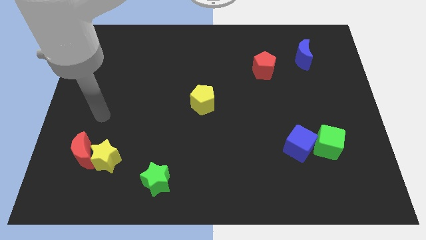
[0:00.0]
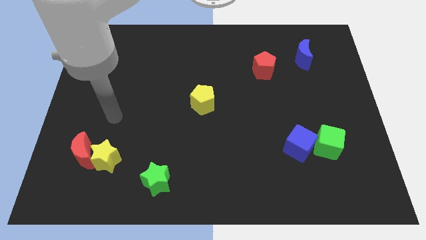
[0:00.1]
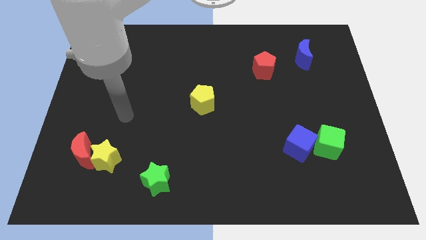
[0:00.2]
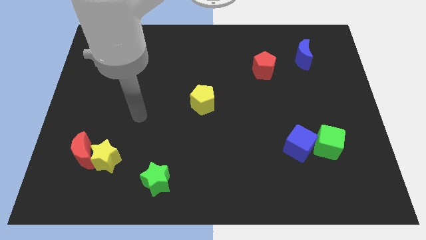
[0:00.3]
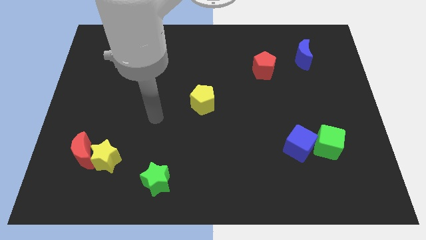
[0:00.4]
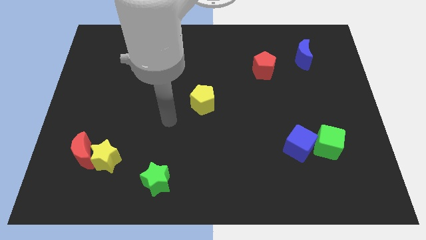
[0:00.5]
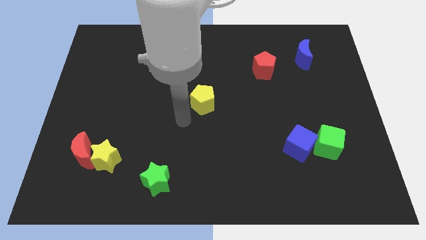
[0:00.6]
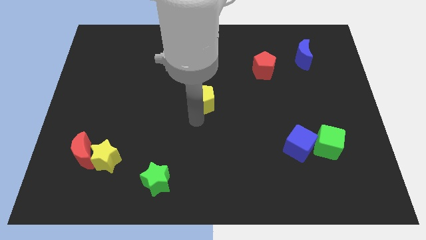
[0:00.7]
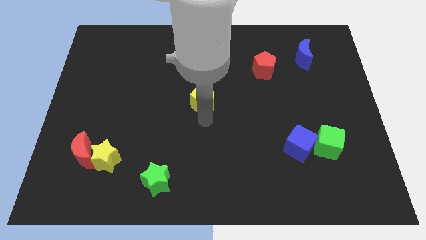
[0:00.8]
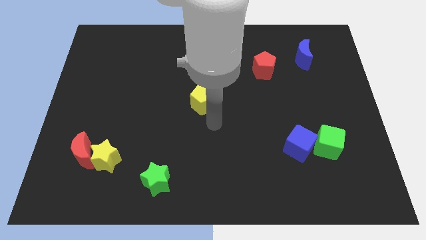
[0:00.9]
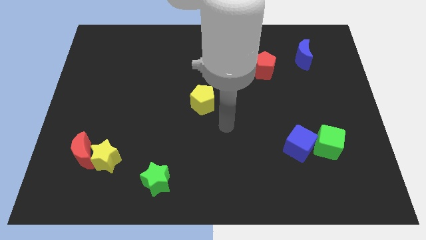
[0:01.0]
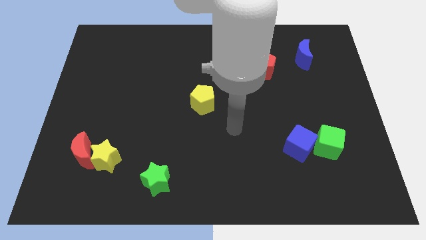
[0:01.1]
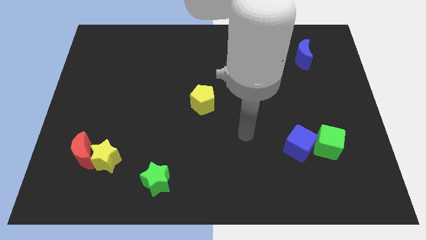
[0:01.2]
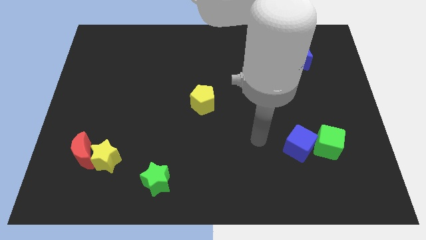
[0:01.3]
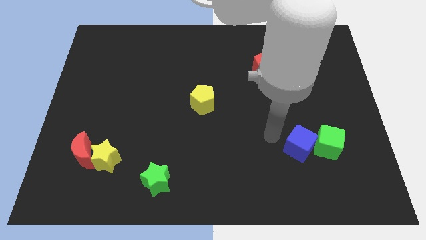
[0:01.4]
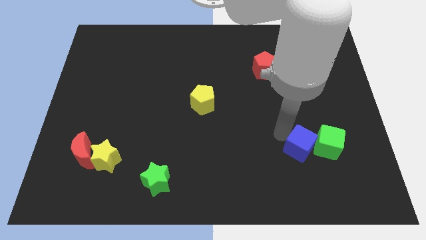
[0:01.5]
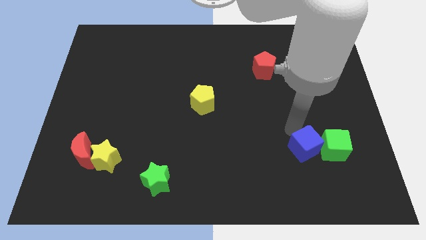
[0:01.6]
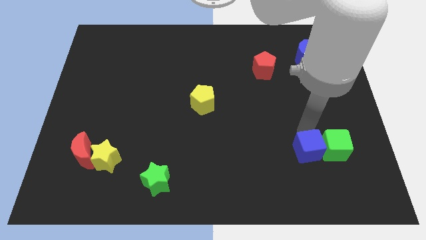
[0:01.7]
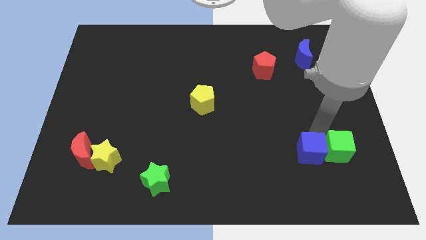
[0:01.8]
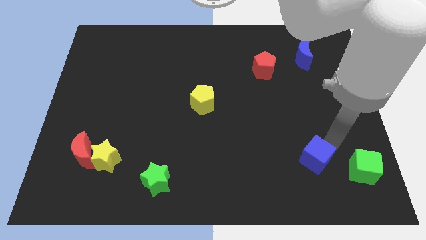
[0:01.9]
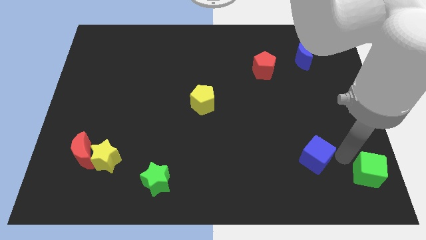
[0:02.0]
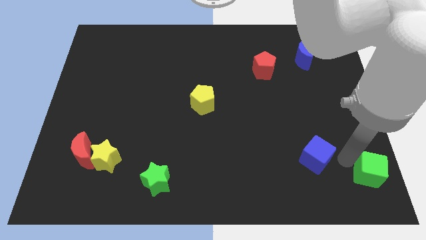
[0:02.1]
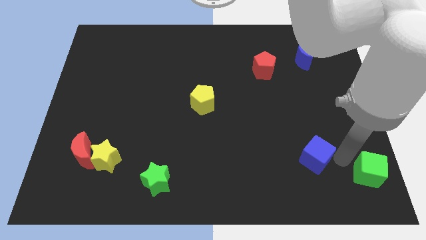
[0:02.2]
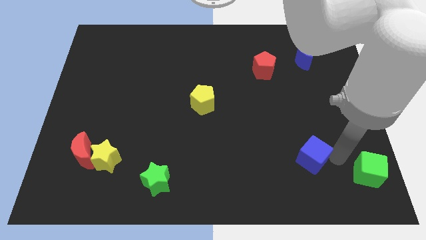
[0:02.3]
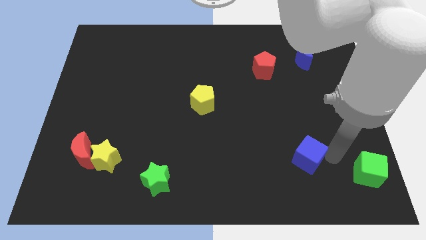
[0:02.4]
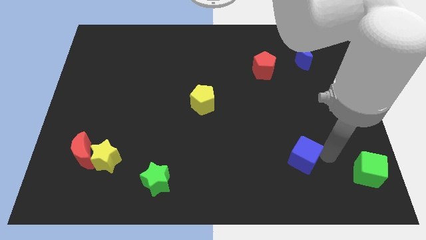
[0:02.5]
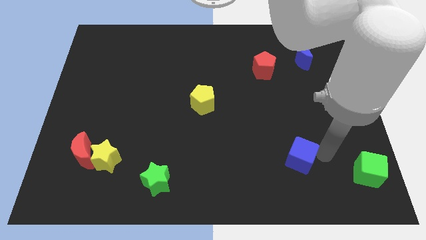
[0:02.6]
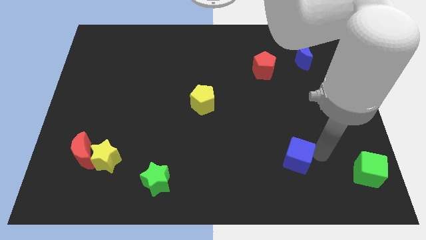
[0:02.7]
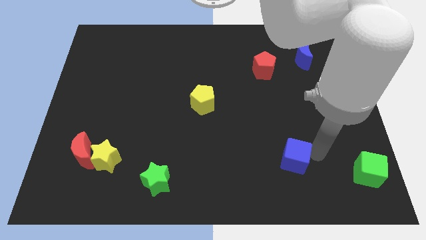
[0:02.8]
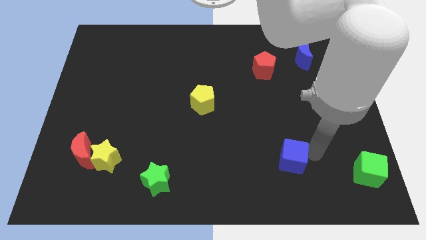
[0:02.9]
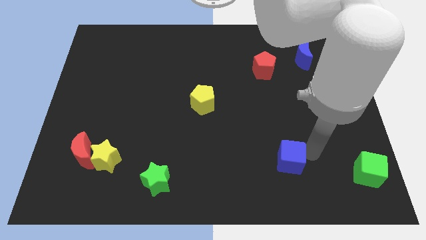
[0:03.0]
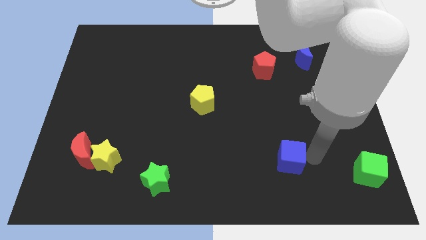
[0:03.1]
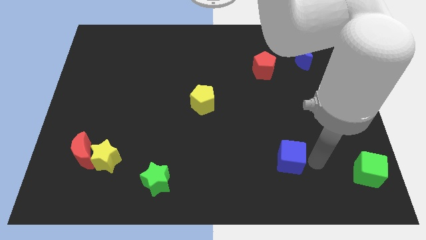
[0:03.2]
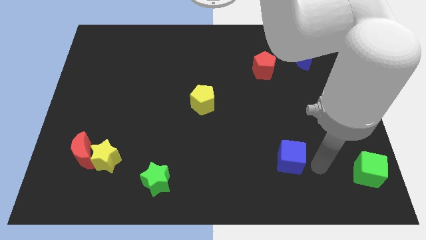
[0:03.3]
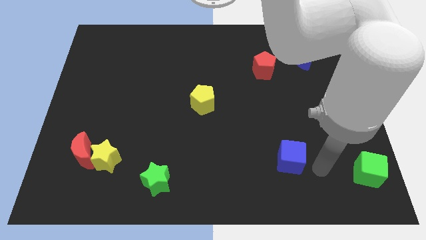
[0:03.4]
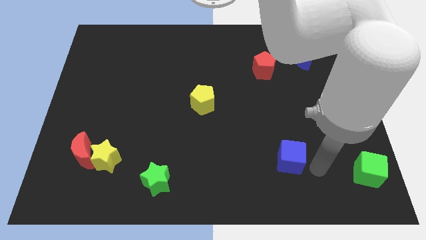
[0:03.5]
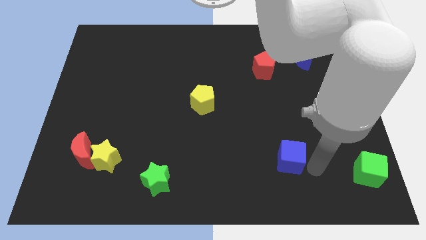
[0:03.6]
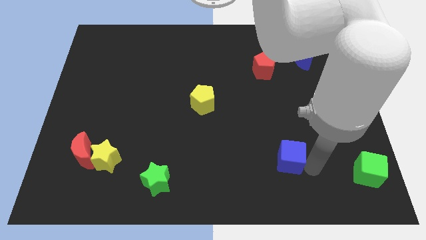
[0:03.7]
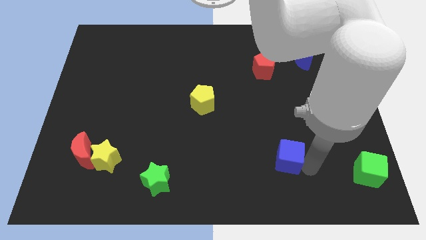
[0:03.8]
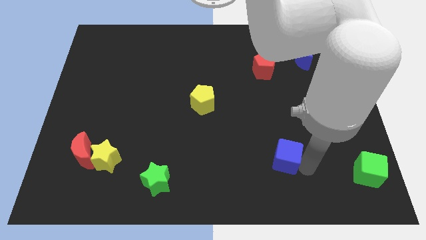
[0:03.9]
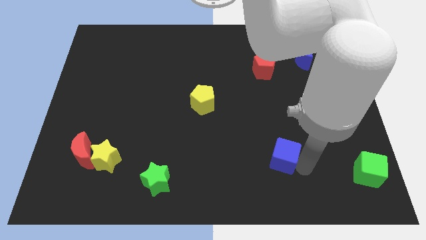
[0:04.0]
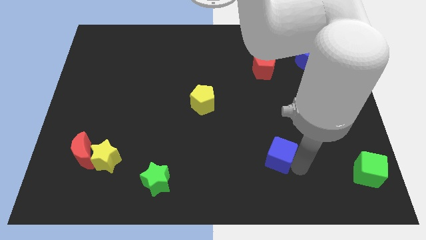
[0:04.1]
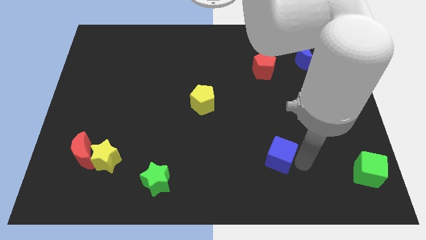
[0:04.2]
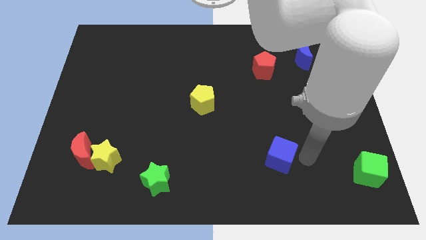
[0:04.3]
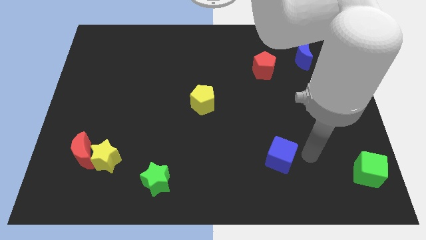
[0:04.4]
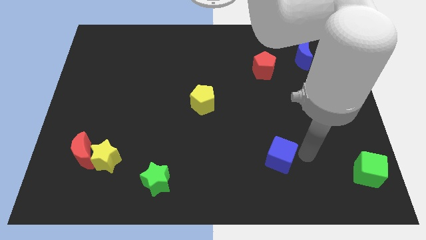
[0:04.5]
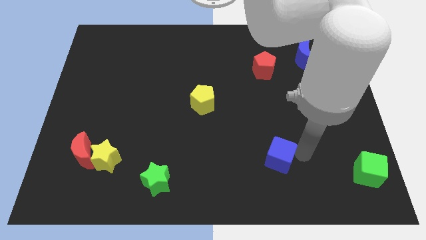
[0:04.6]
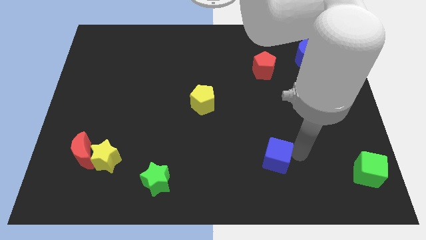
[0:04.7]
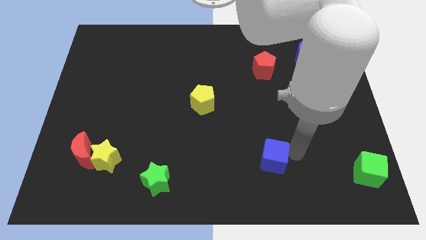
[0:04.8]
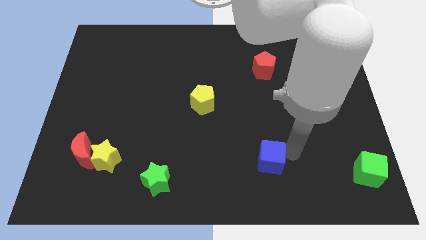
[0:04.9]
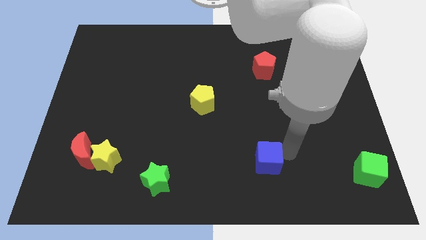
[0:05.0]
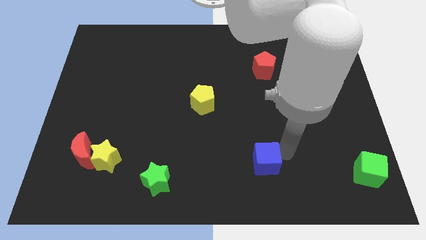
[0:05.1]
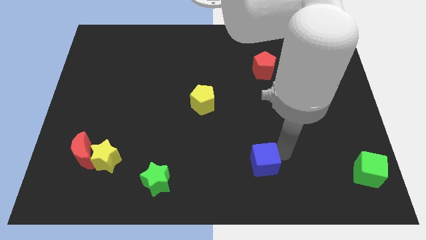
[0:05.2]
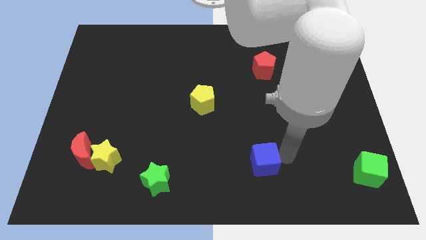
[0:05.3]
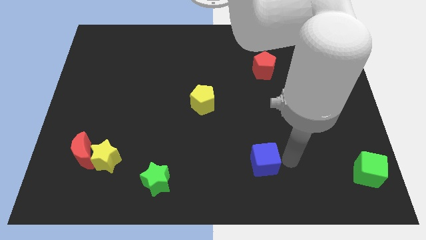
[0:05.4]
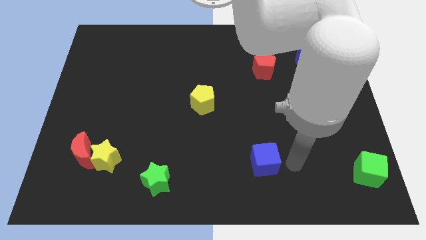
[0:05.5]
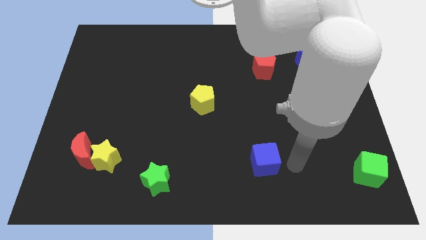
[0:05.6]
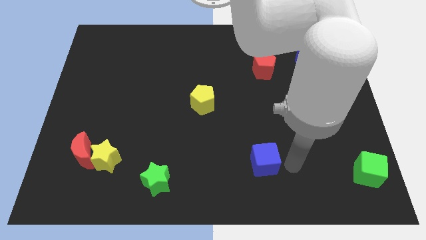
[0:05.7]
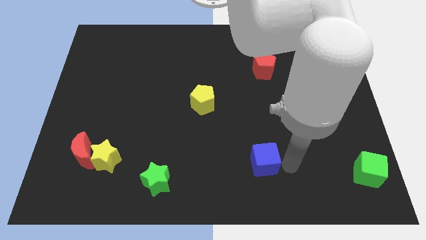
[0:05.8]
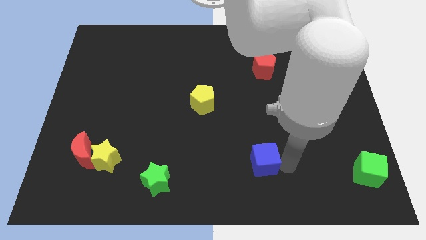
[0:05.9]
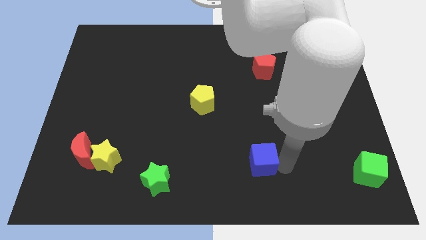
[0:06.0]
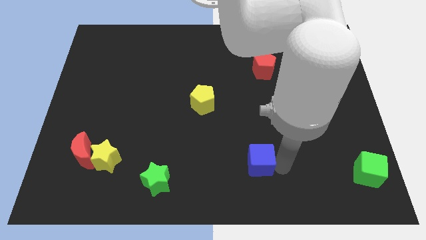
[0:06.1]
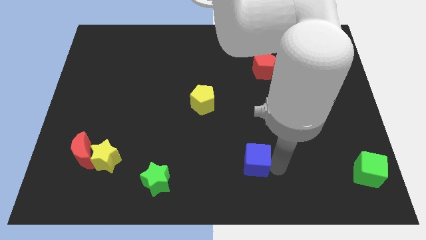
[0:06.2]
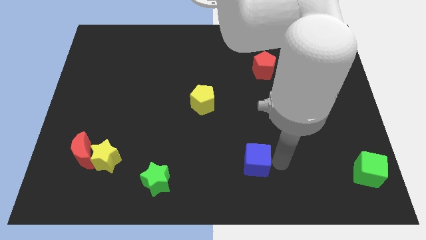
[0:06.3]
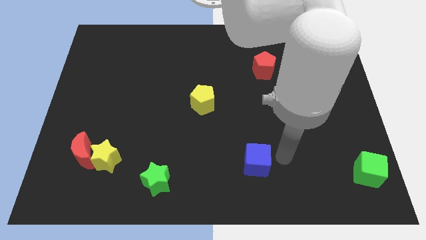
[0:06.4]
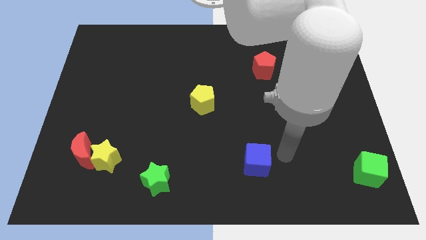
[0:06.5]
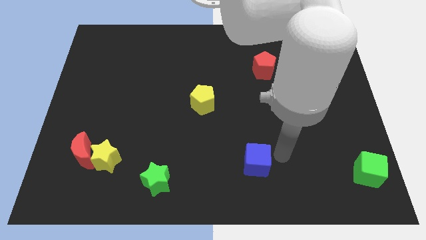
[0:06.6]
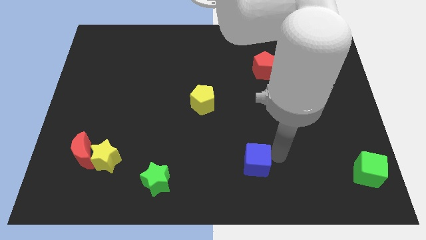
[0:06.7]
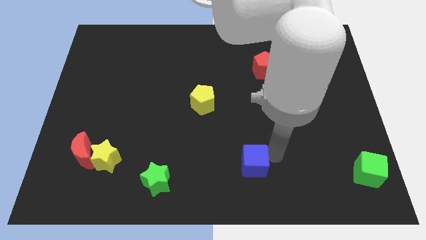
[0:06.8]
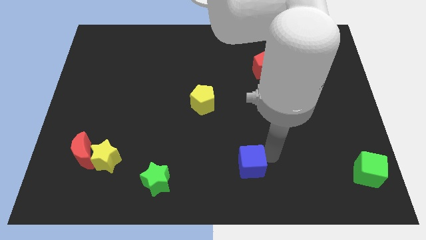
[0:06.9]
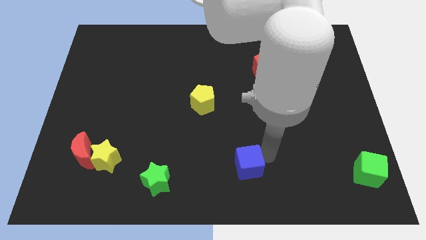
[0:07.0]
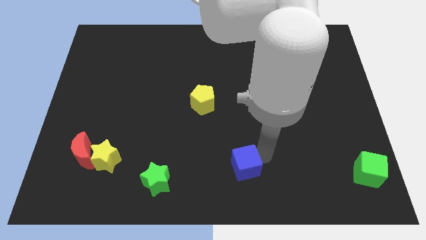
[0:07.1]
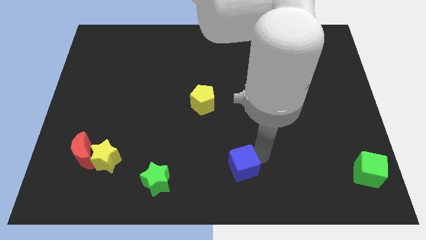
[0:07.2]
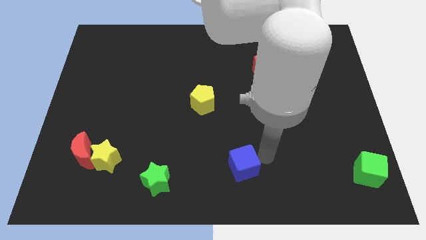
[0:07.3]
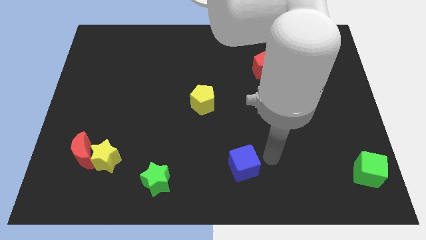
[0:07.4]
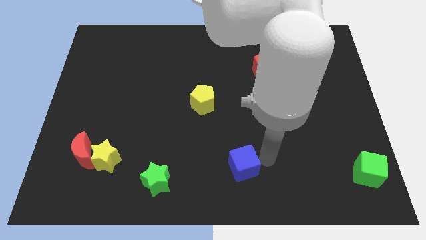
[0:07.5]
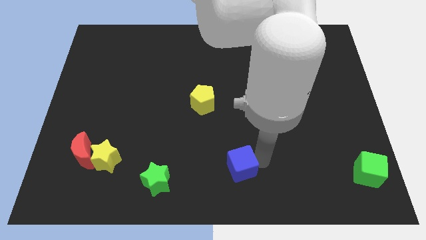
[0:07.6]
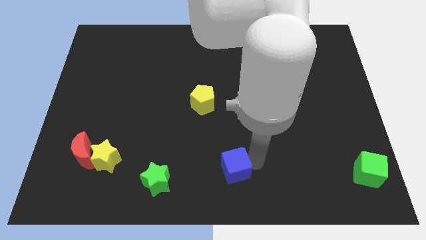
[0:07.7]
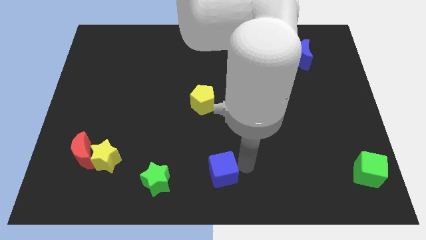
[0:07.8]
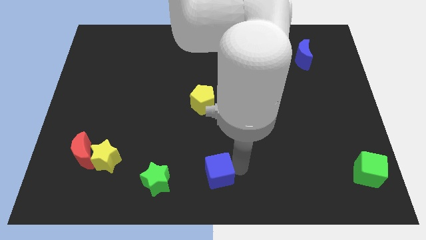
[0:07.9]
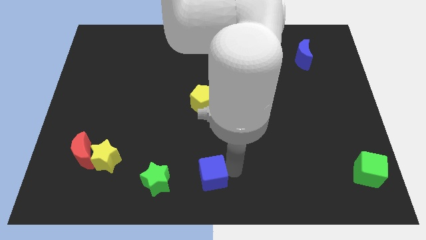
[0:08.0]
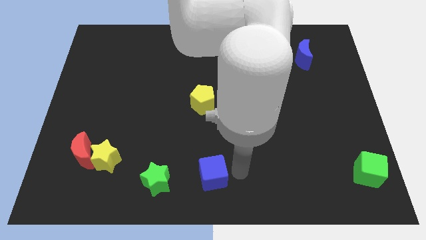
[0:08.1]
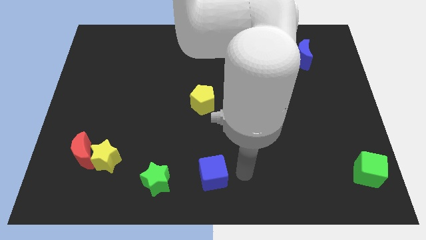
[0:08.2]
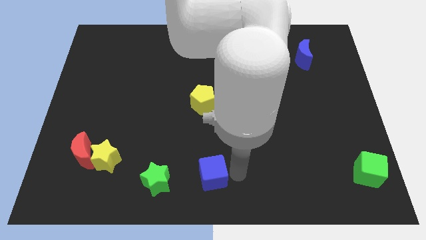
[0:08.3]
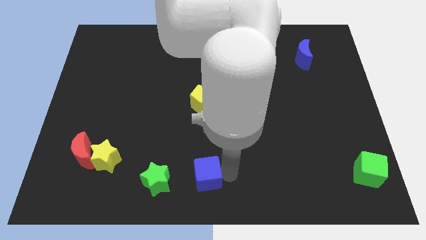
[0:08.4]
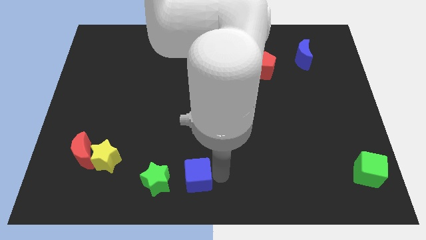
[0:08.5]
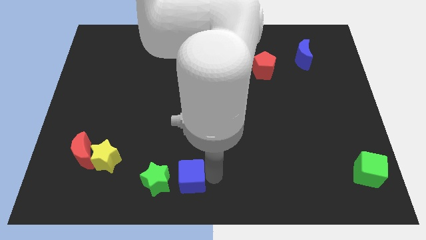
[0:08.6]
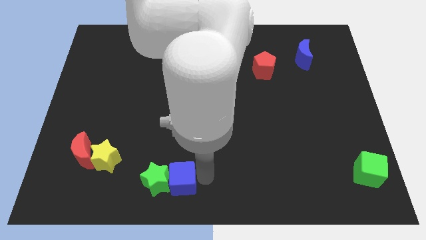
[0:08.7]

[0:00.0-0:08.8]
slide the blue cube next to the green star
